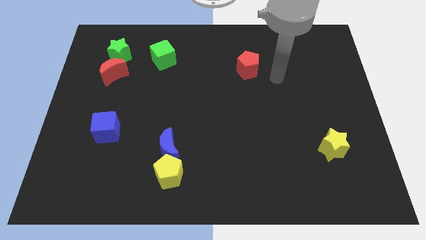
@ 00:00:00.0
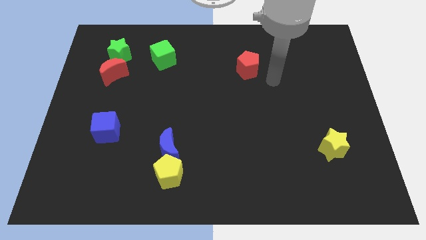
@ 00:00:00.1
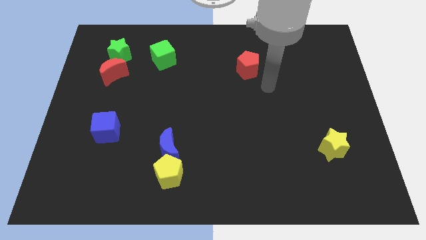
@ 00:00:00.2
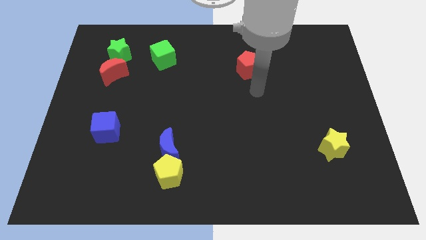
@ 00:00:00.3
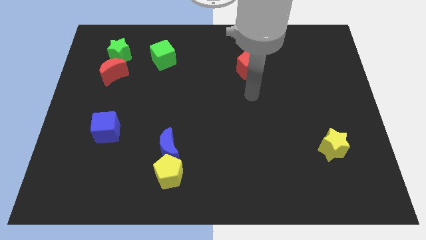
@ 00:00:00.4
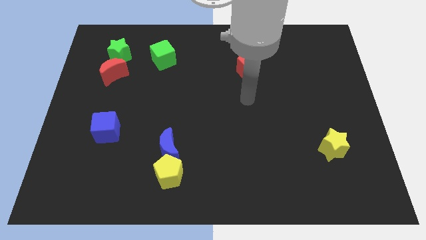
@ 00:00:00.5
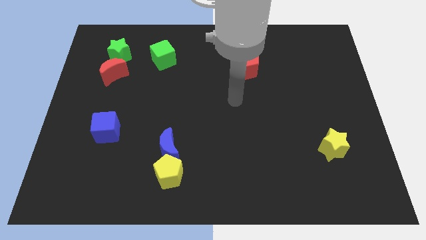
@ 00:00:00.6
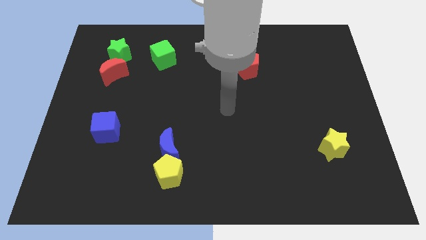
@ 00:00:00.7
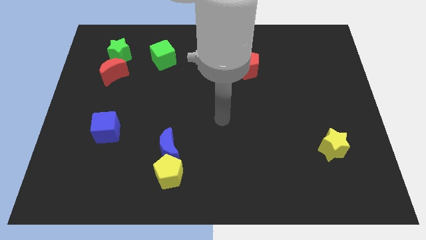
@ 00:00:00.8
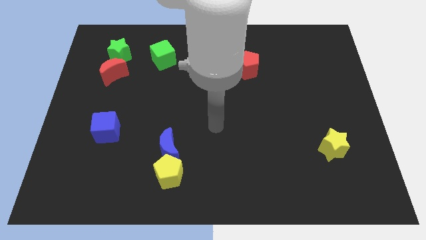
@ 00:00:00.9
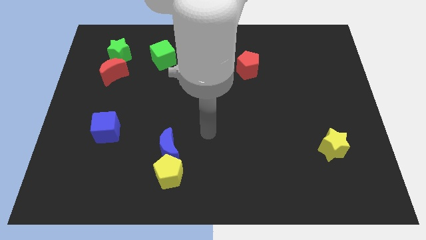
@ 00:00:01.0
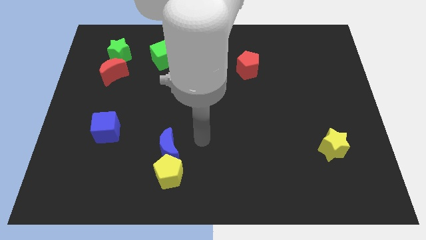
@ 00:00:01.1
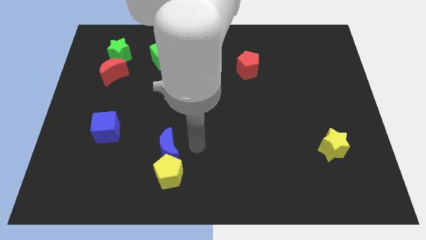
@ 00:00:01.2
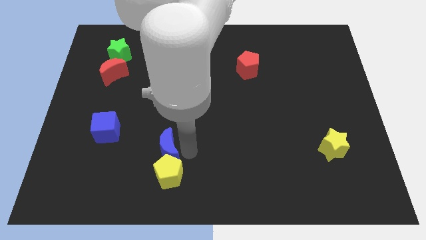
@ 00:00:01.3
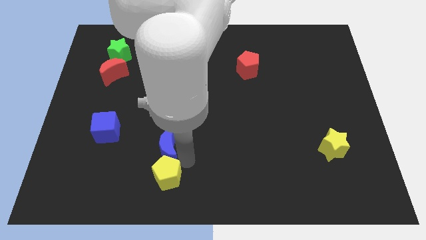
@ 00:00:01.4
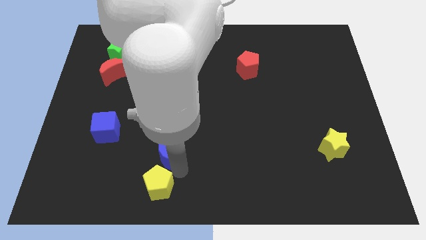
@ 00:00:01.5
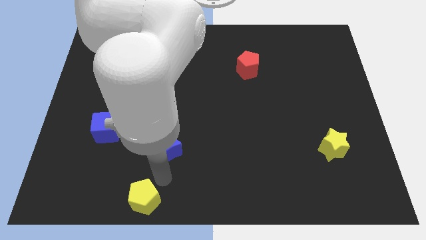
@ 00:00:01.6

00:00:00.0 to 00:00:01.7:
move the blue moon away from the yellow pentagon

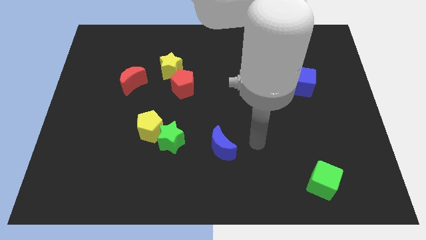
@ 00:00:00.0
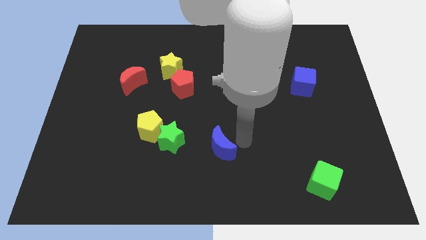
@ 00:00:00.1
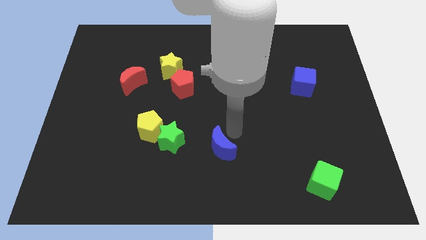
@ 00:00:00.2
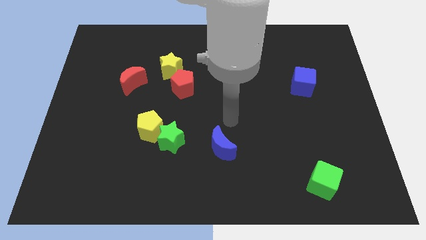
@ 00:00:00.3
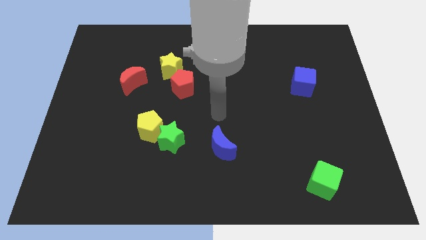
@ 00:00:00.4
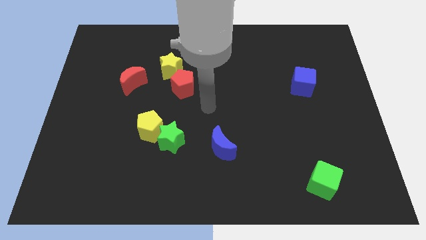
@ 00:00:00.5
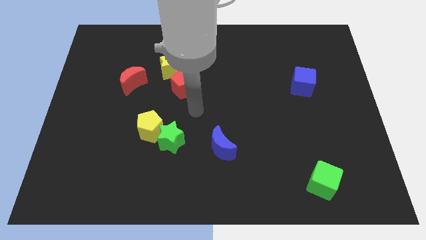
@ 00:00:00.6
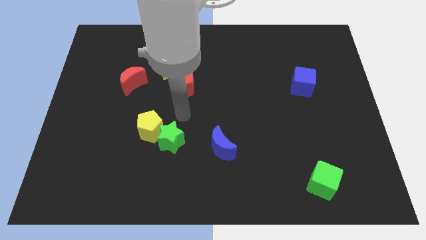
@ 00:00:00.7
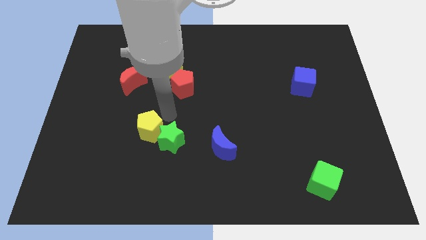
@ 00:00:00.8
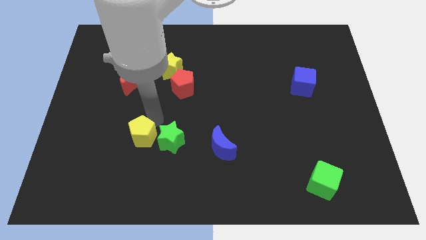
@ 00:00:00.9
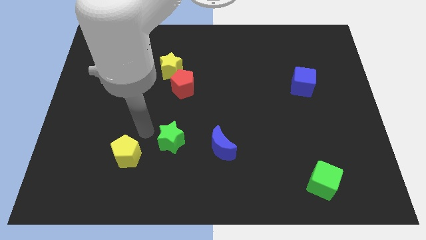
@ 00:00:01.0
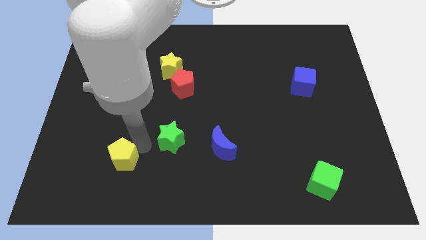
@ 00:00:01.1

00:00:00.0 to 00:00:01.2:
pull the green star apart from the yellow pentagon

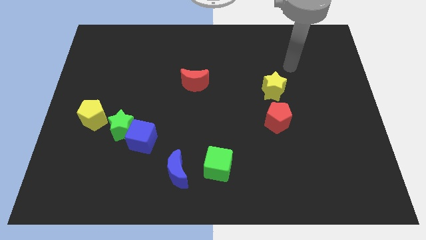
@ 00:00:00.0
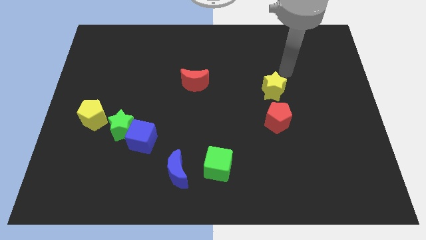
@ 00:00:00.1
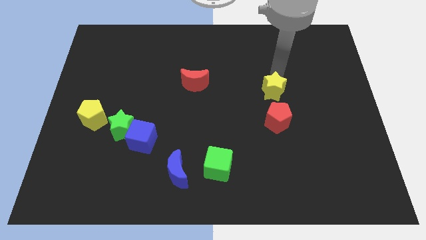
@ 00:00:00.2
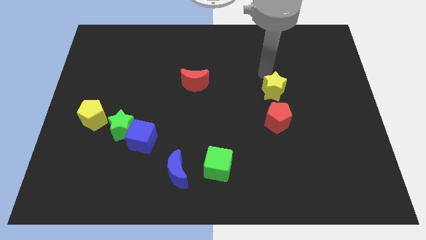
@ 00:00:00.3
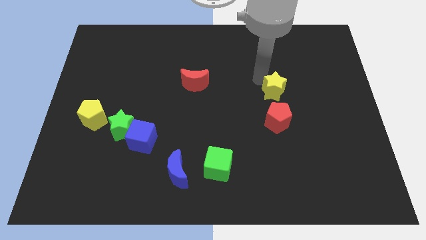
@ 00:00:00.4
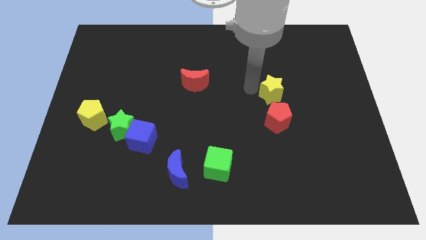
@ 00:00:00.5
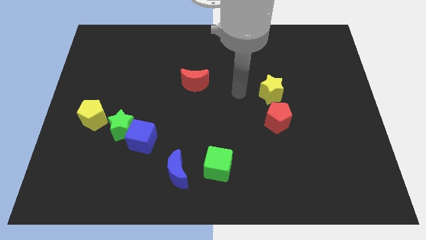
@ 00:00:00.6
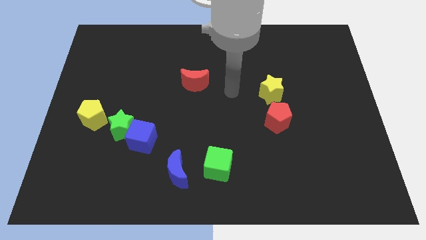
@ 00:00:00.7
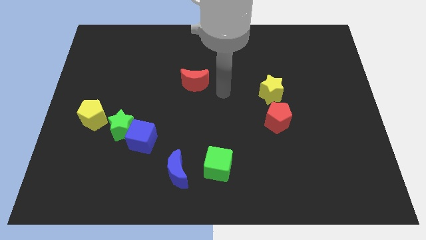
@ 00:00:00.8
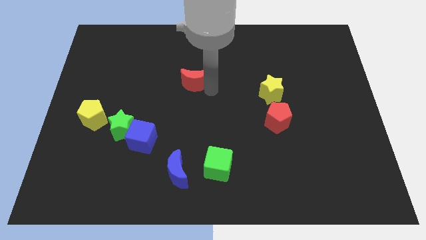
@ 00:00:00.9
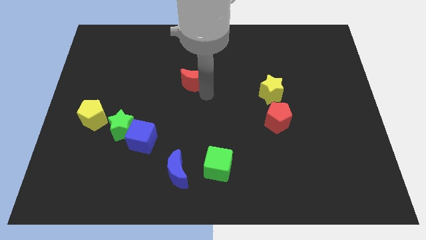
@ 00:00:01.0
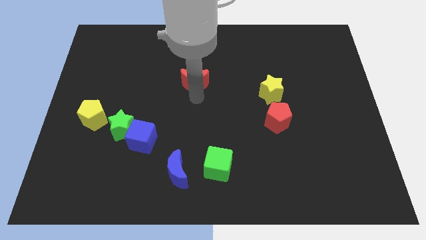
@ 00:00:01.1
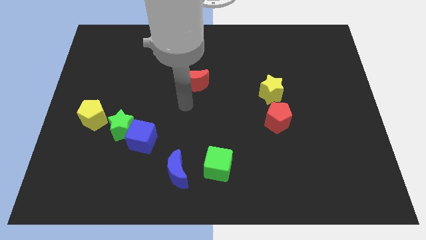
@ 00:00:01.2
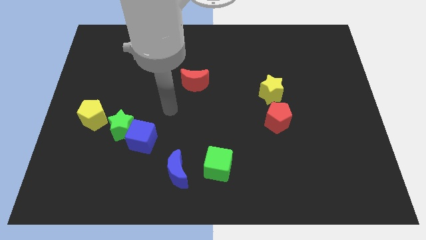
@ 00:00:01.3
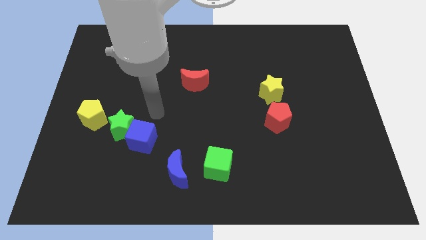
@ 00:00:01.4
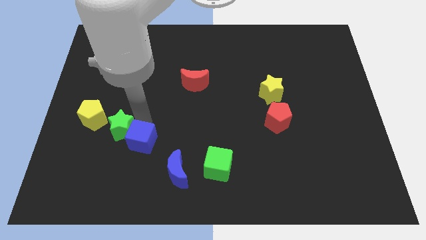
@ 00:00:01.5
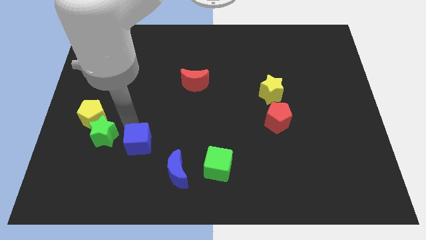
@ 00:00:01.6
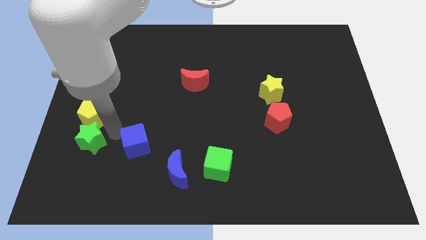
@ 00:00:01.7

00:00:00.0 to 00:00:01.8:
pull the blue cube apart from the green star

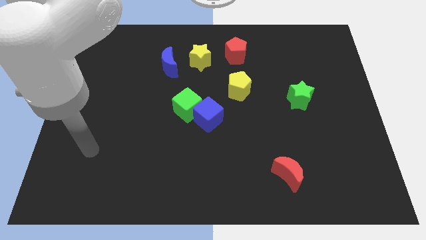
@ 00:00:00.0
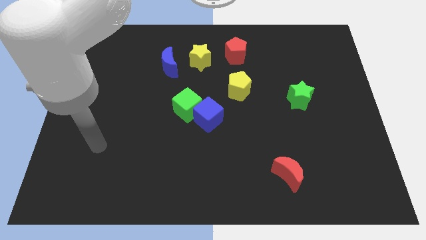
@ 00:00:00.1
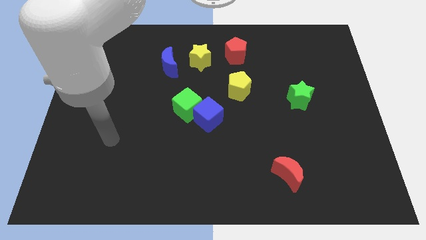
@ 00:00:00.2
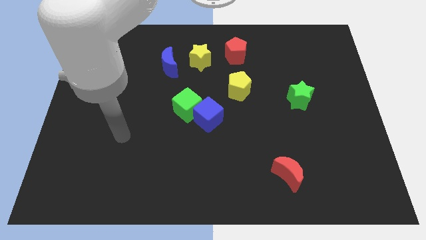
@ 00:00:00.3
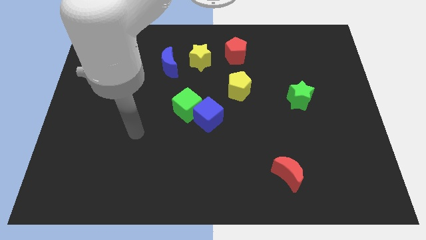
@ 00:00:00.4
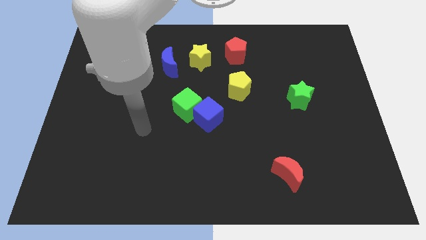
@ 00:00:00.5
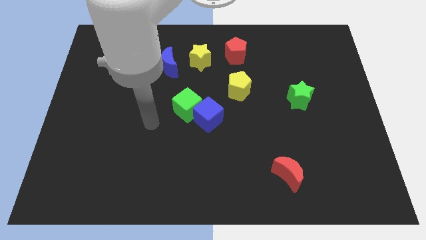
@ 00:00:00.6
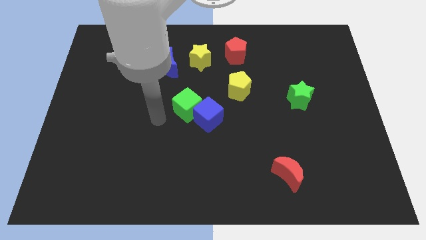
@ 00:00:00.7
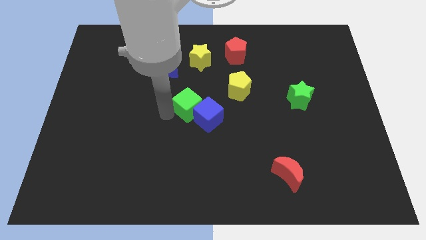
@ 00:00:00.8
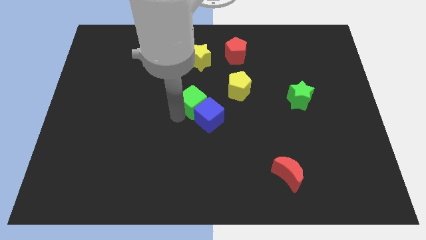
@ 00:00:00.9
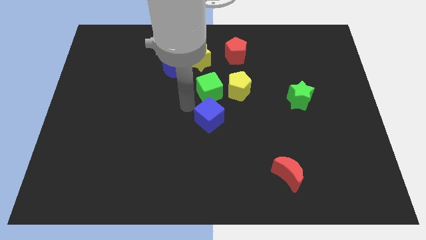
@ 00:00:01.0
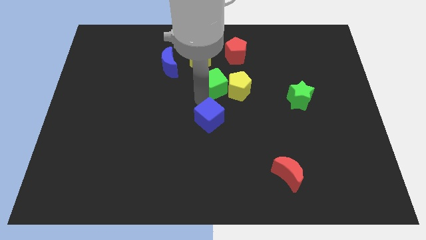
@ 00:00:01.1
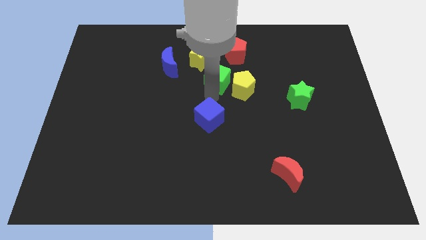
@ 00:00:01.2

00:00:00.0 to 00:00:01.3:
pull the blue cube apart from the green cube

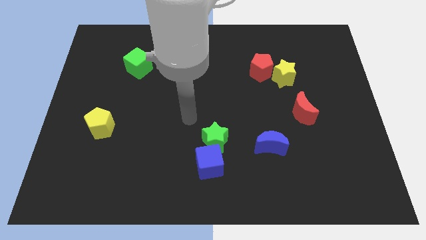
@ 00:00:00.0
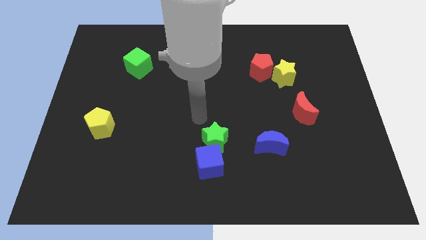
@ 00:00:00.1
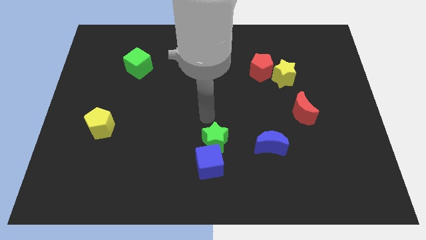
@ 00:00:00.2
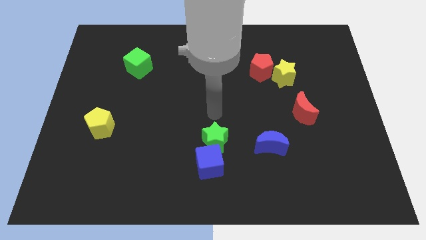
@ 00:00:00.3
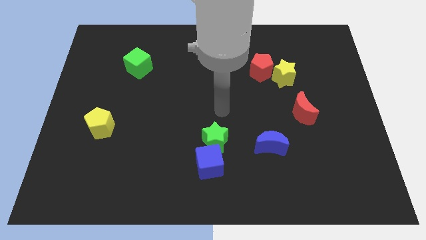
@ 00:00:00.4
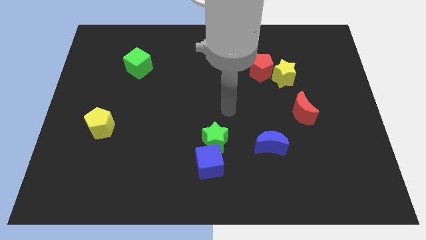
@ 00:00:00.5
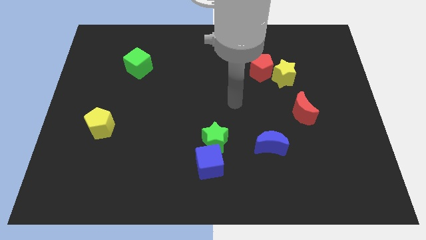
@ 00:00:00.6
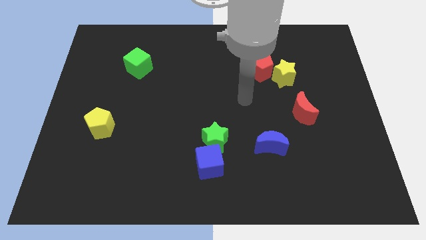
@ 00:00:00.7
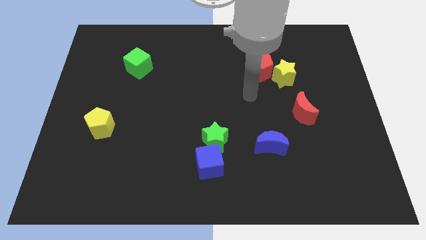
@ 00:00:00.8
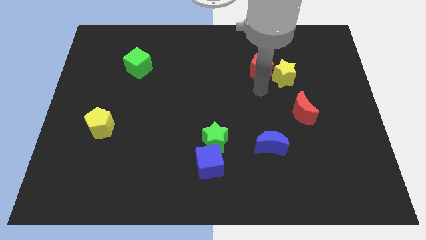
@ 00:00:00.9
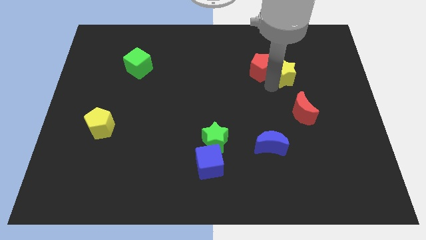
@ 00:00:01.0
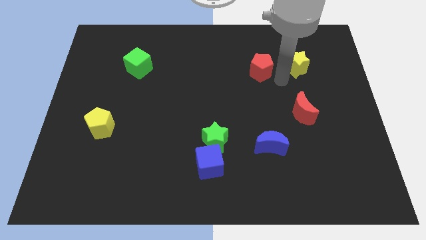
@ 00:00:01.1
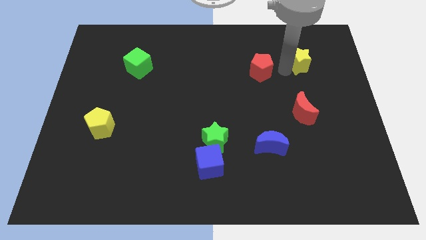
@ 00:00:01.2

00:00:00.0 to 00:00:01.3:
pull the red pentagon apart from the yellow star

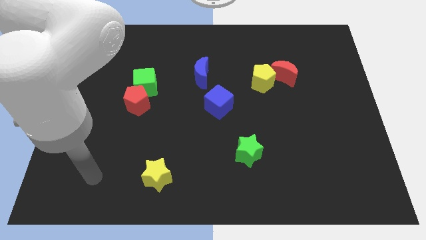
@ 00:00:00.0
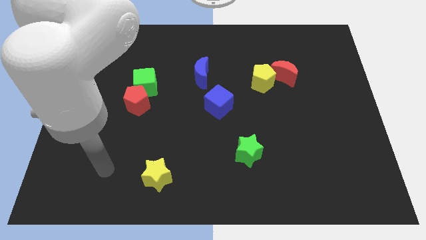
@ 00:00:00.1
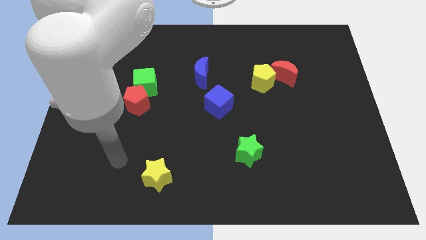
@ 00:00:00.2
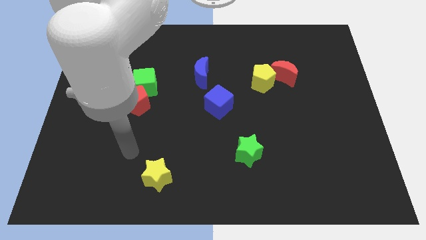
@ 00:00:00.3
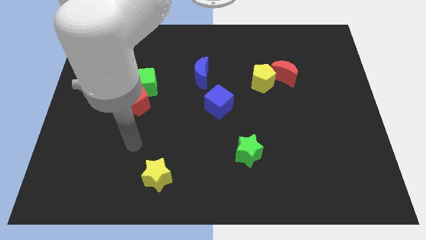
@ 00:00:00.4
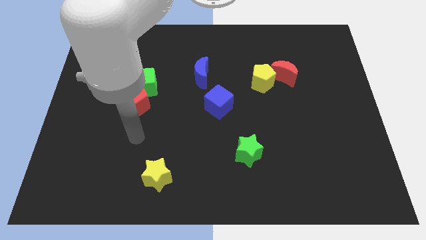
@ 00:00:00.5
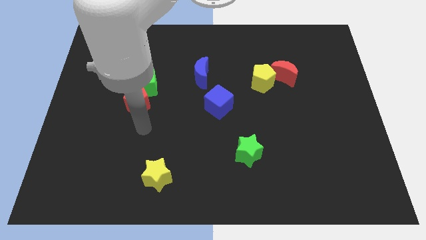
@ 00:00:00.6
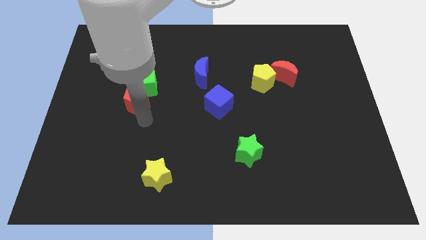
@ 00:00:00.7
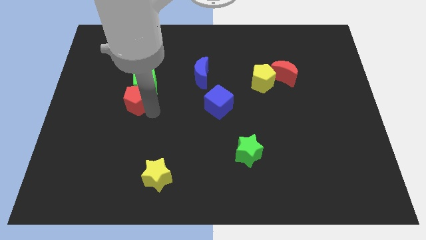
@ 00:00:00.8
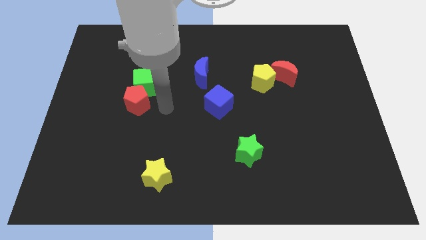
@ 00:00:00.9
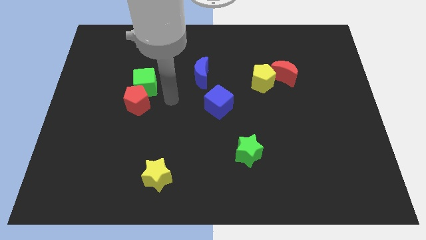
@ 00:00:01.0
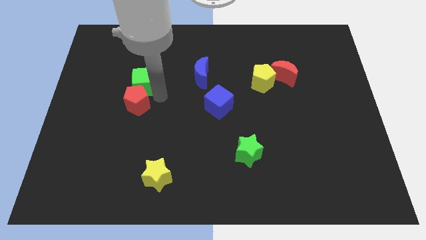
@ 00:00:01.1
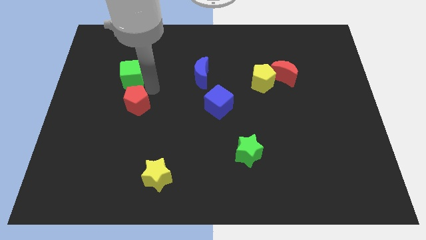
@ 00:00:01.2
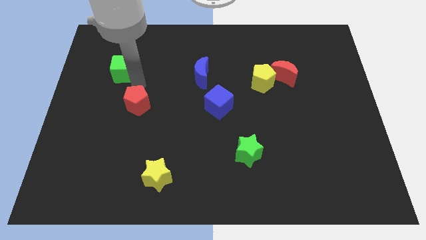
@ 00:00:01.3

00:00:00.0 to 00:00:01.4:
pull the red pentagon apart from the green cube

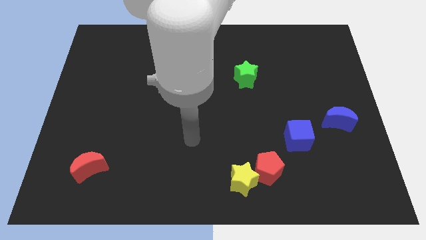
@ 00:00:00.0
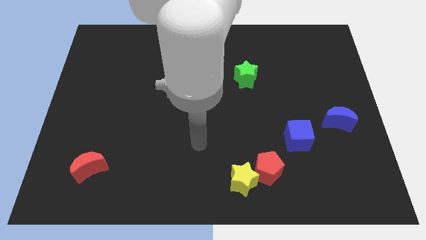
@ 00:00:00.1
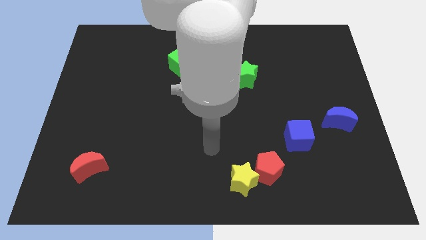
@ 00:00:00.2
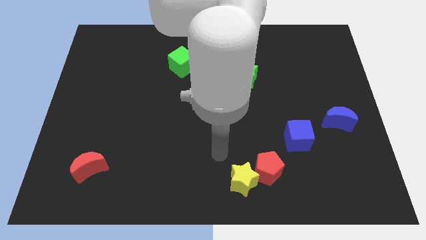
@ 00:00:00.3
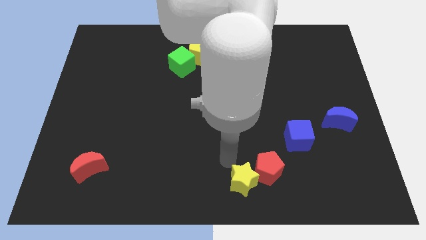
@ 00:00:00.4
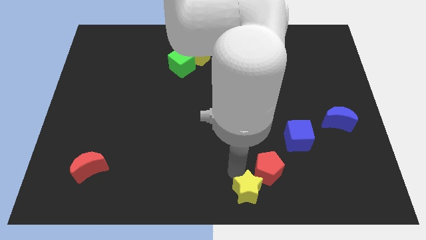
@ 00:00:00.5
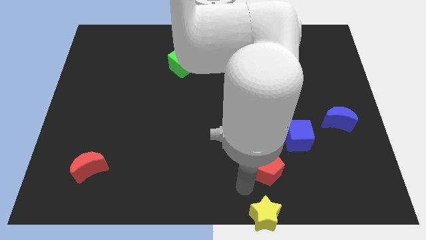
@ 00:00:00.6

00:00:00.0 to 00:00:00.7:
move the red pentagon away from the yellow star
